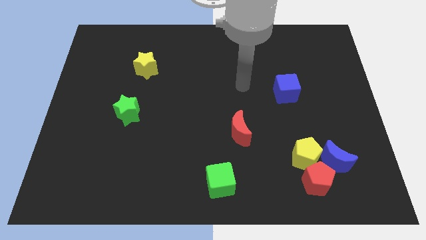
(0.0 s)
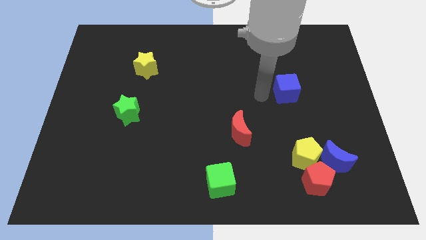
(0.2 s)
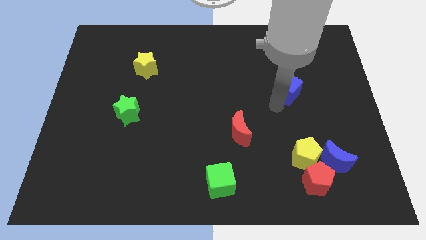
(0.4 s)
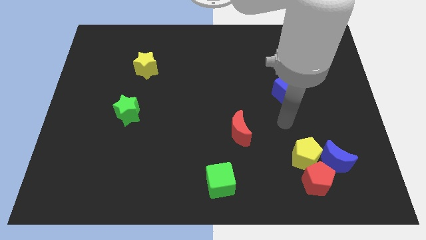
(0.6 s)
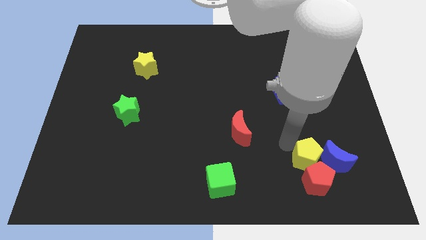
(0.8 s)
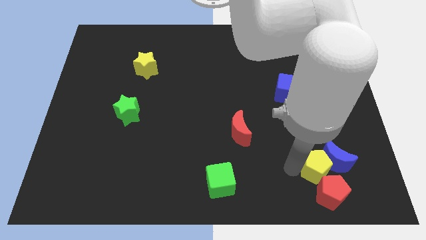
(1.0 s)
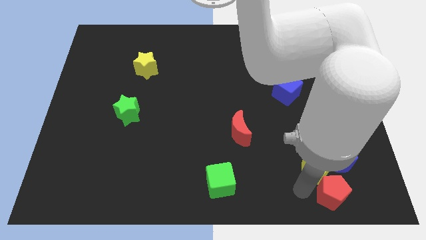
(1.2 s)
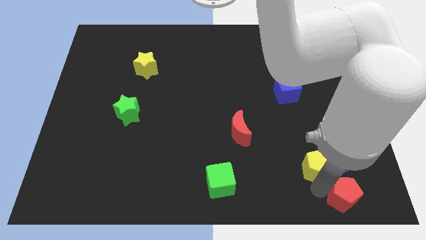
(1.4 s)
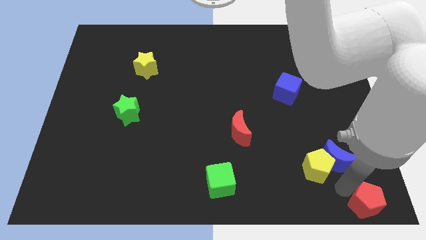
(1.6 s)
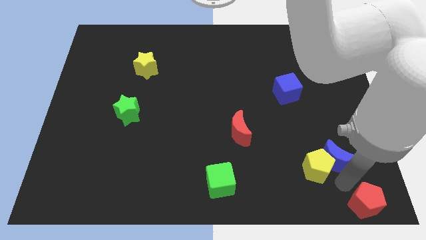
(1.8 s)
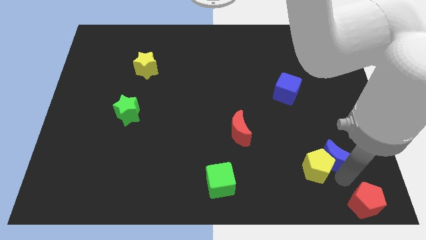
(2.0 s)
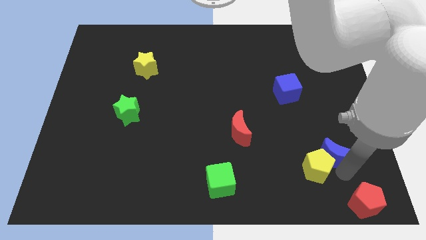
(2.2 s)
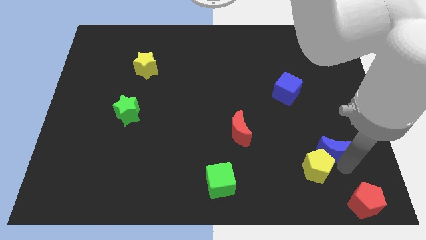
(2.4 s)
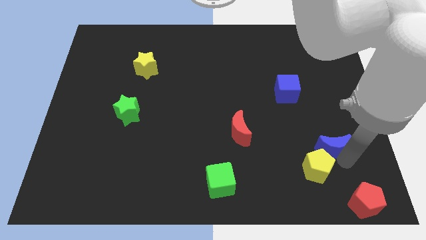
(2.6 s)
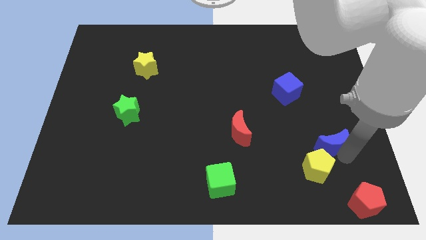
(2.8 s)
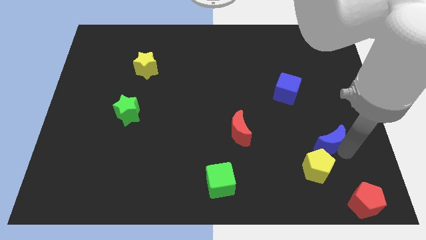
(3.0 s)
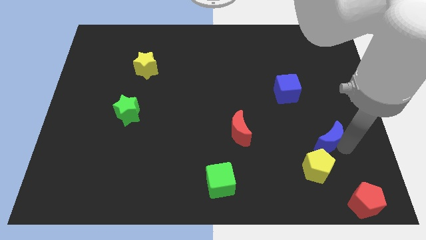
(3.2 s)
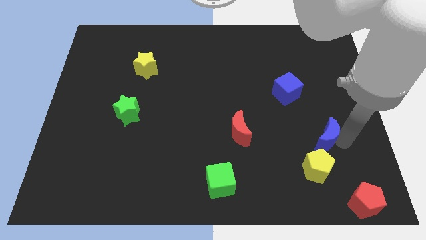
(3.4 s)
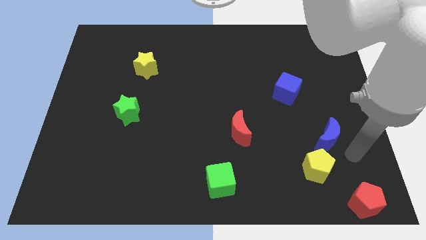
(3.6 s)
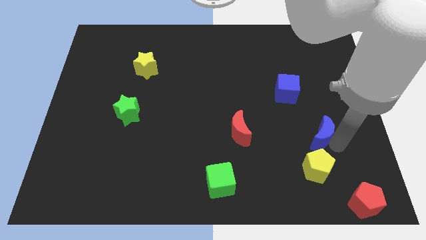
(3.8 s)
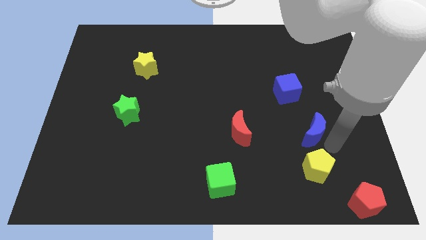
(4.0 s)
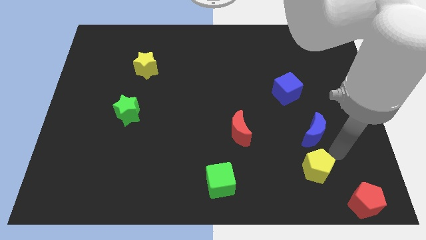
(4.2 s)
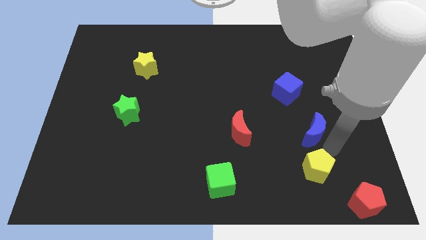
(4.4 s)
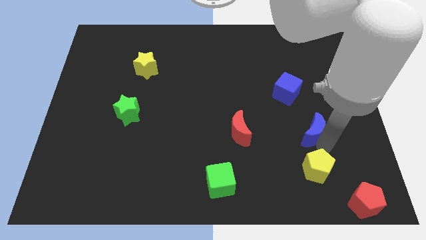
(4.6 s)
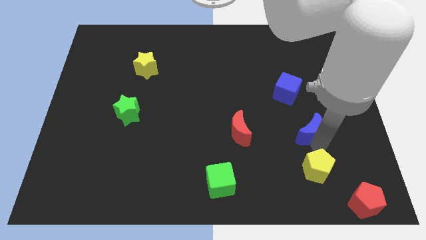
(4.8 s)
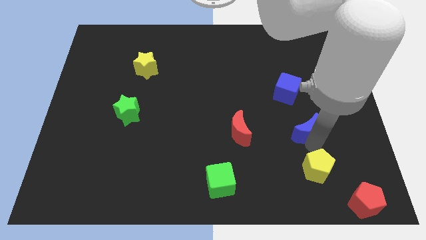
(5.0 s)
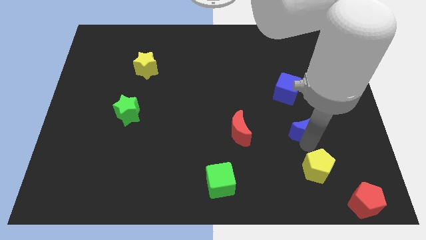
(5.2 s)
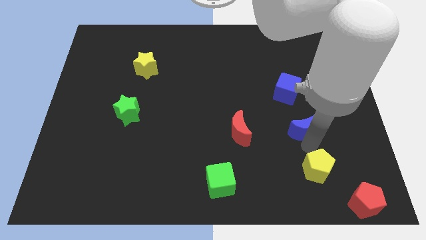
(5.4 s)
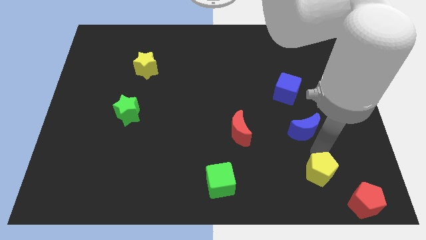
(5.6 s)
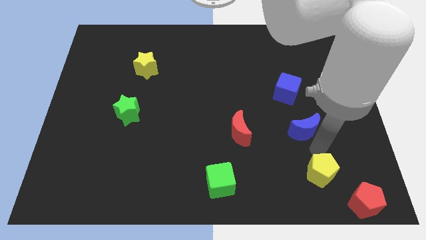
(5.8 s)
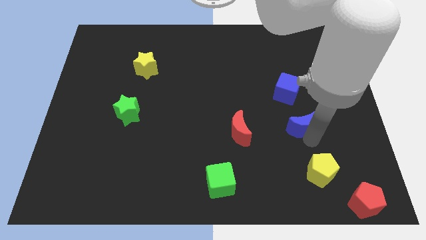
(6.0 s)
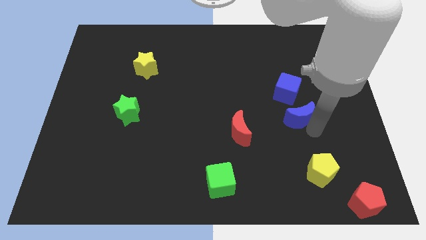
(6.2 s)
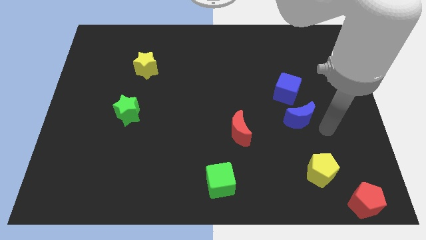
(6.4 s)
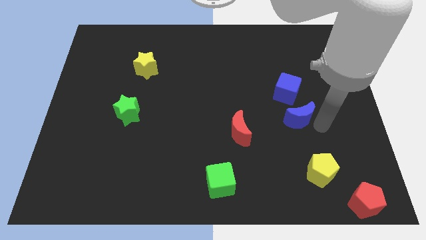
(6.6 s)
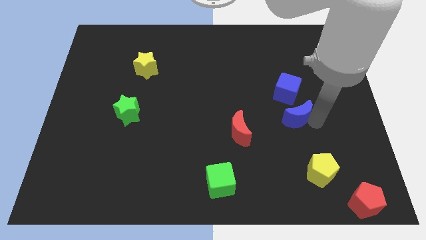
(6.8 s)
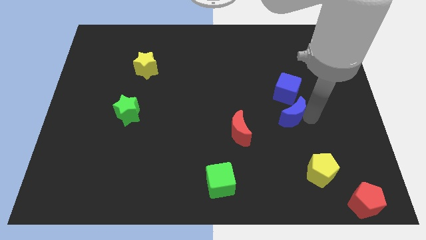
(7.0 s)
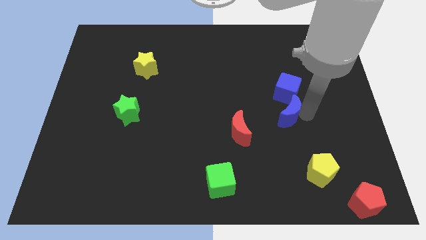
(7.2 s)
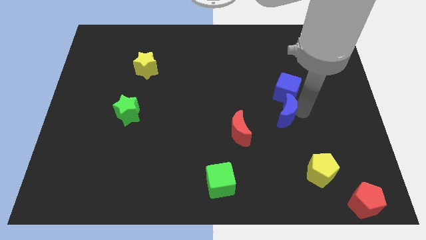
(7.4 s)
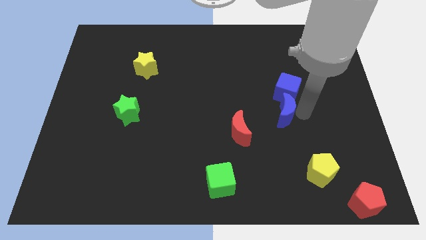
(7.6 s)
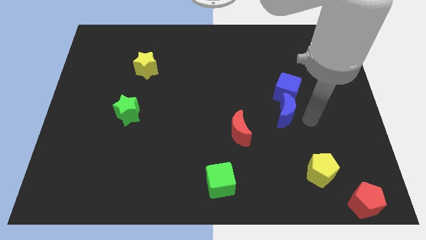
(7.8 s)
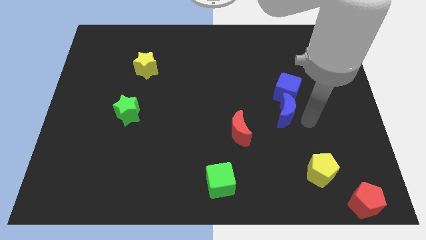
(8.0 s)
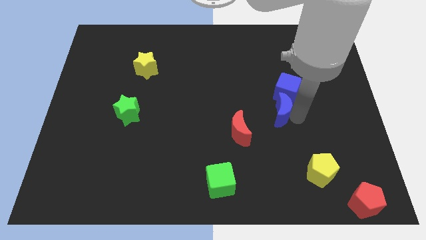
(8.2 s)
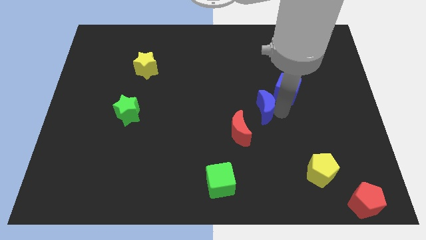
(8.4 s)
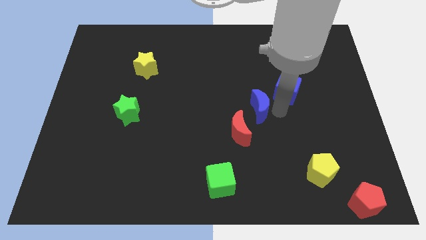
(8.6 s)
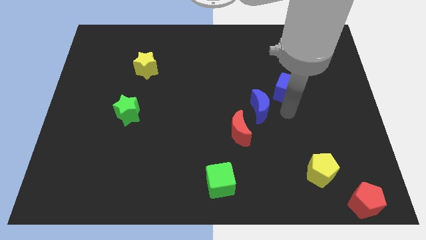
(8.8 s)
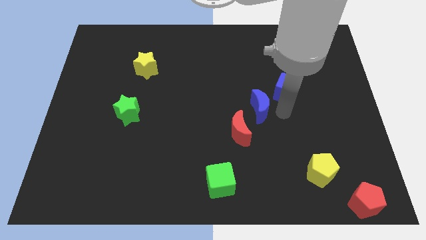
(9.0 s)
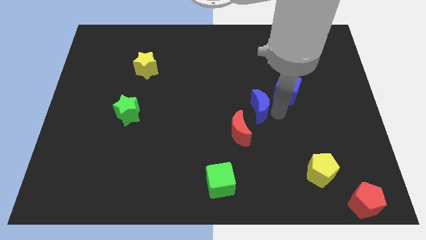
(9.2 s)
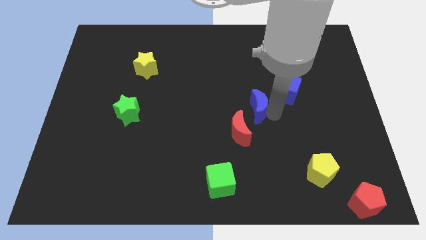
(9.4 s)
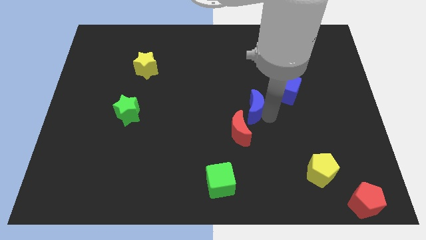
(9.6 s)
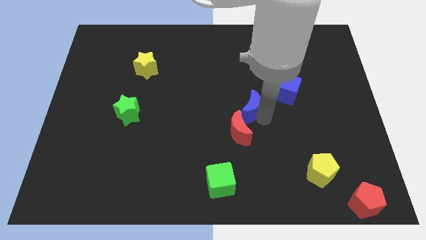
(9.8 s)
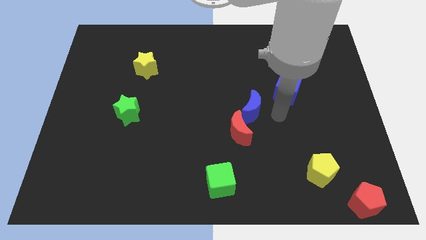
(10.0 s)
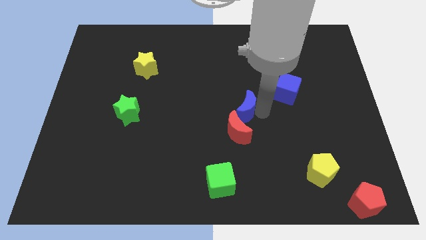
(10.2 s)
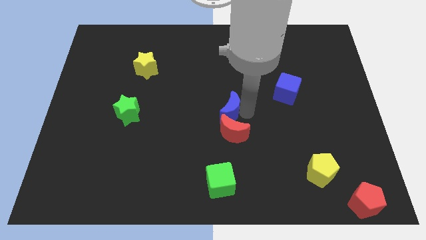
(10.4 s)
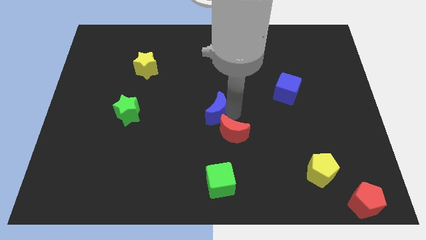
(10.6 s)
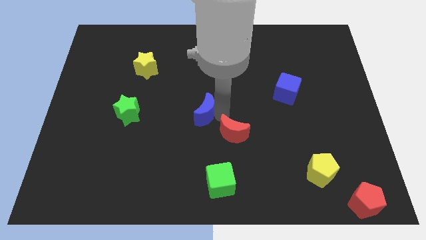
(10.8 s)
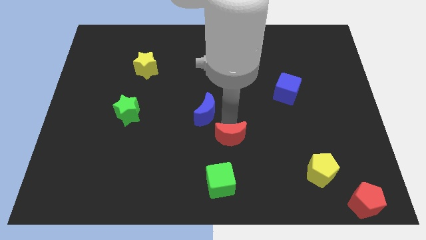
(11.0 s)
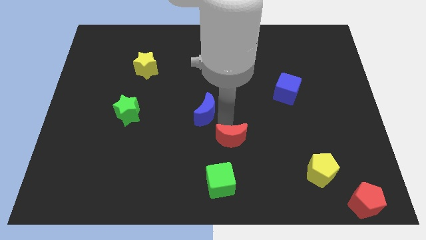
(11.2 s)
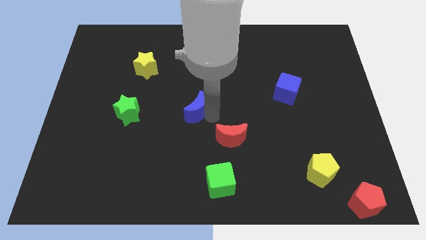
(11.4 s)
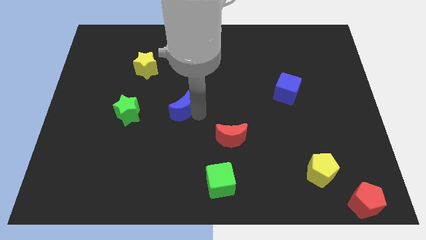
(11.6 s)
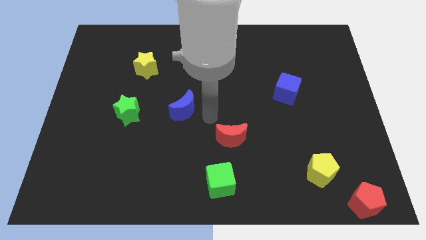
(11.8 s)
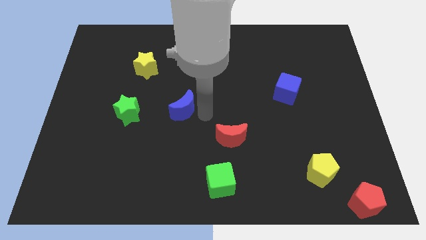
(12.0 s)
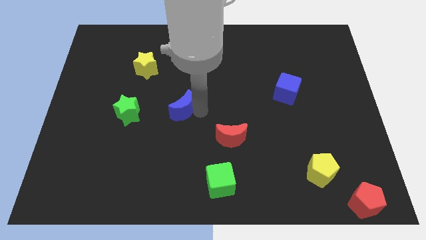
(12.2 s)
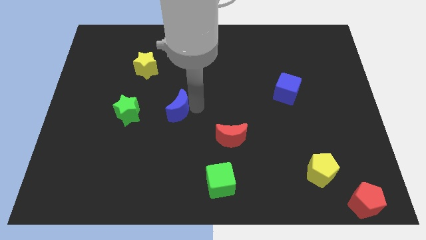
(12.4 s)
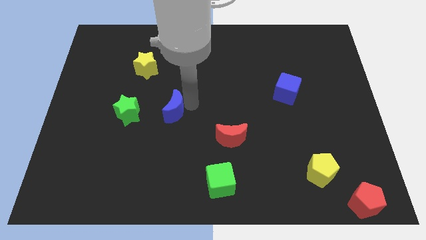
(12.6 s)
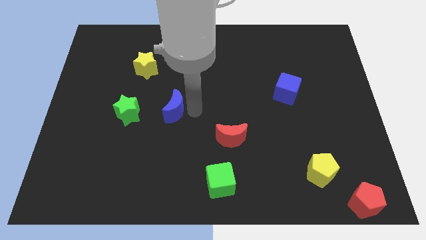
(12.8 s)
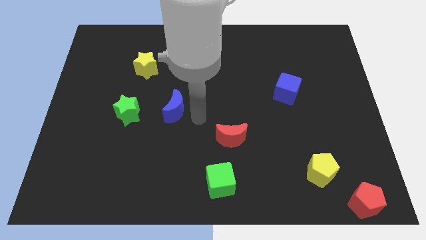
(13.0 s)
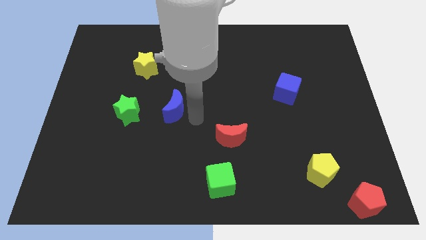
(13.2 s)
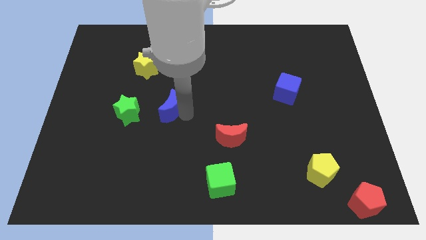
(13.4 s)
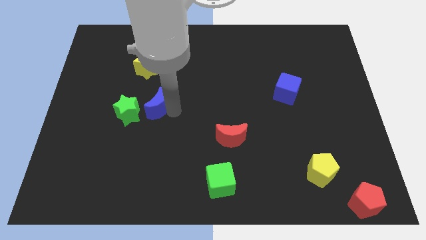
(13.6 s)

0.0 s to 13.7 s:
slide the blue moon below the yellow star

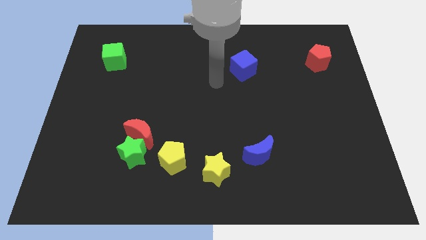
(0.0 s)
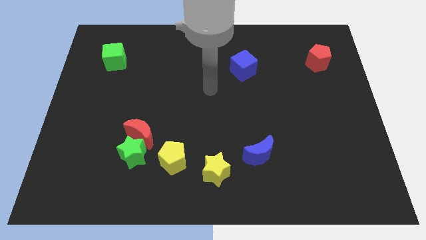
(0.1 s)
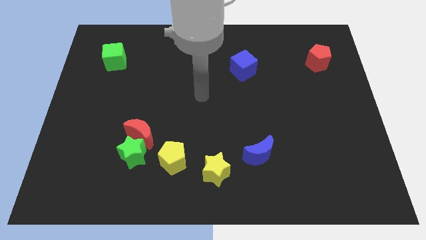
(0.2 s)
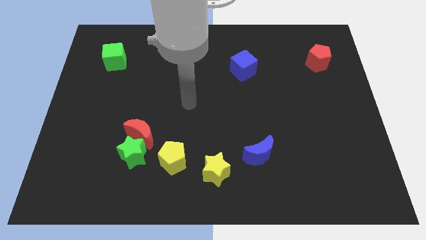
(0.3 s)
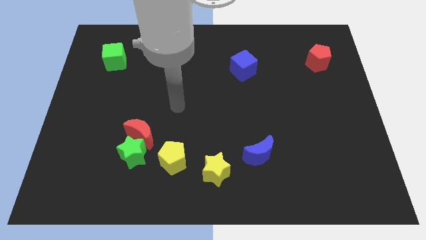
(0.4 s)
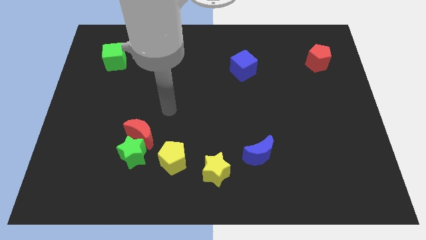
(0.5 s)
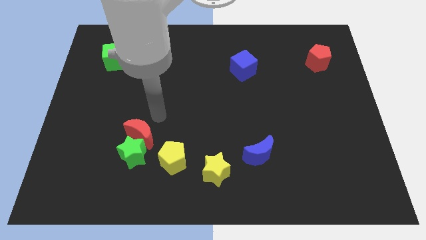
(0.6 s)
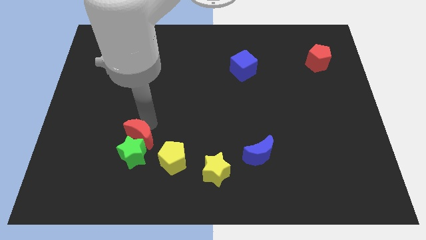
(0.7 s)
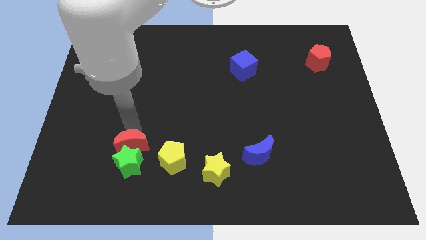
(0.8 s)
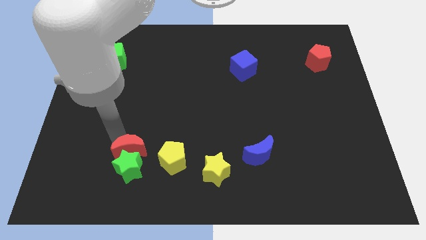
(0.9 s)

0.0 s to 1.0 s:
slide the green star to the bottom left side of the yellow pentagon
